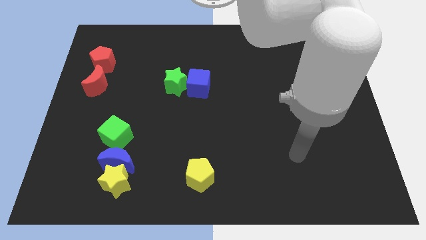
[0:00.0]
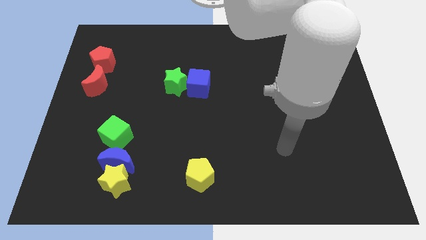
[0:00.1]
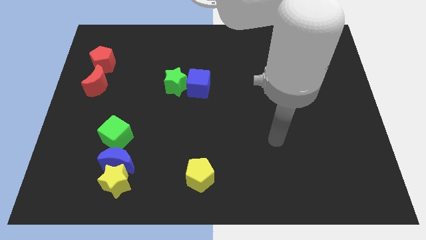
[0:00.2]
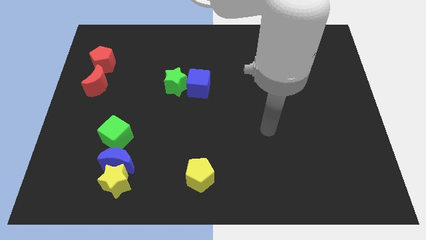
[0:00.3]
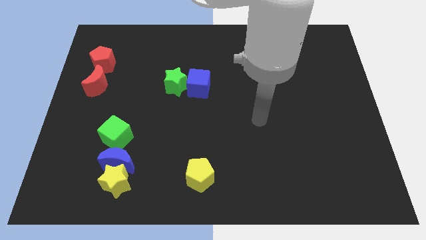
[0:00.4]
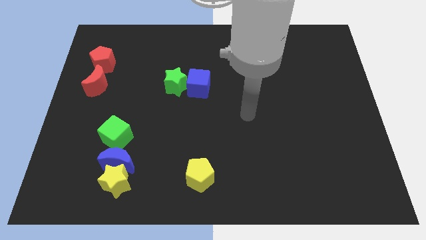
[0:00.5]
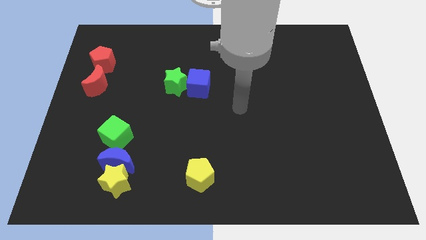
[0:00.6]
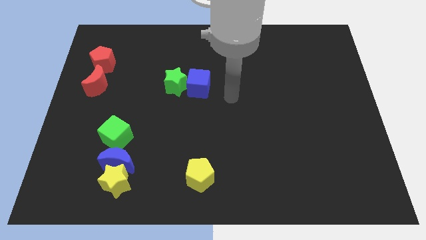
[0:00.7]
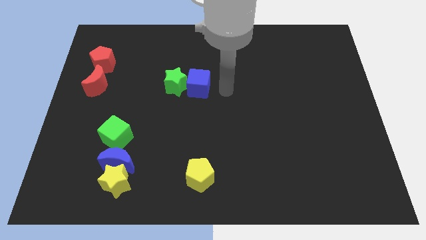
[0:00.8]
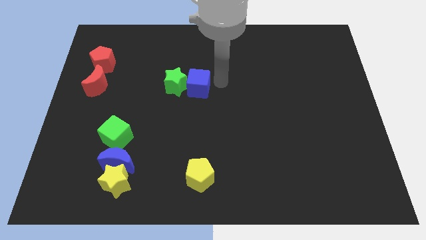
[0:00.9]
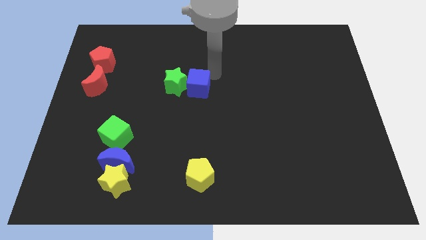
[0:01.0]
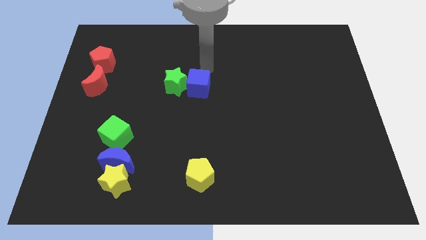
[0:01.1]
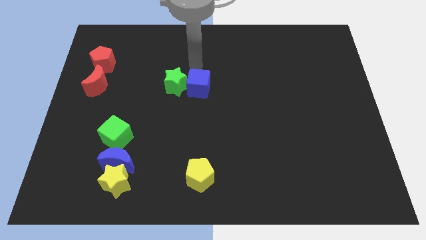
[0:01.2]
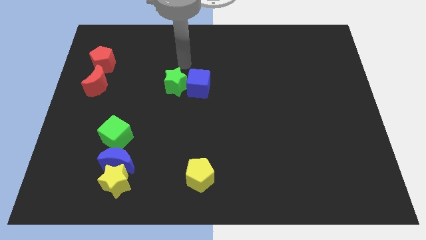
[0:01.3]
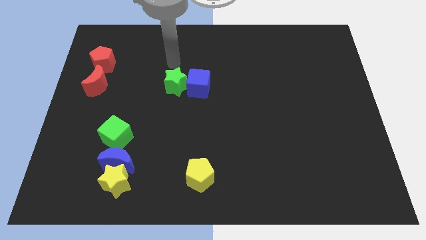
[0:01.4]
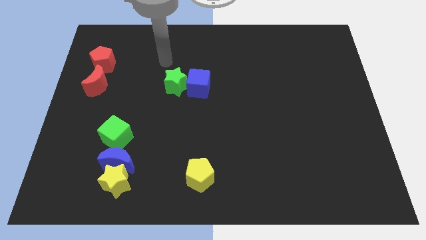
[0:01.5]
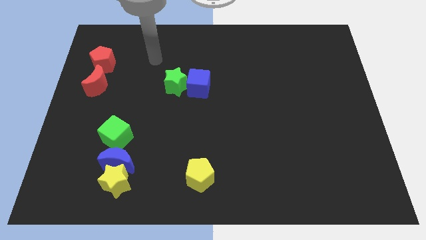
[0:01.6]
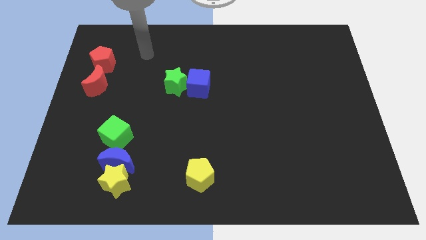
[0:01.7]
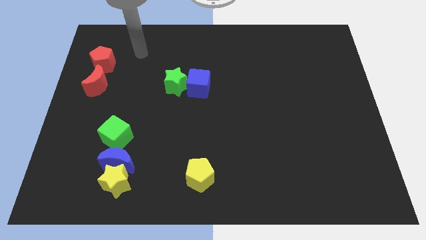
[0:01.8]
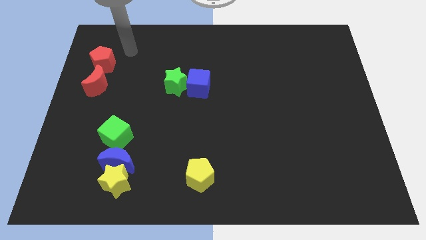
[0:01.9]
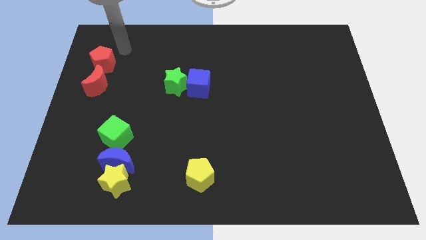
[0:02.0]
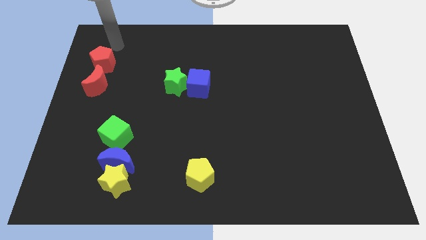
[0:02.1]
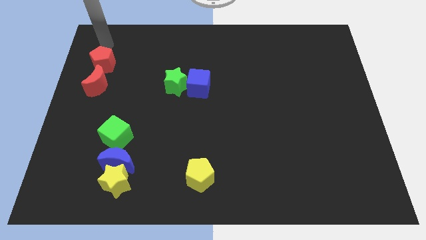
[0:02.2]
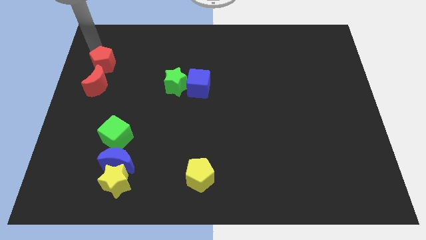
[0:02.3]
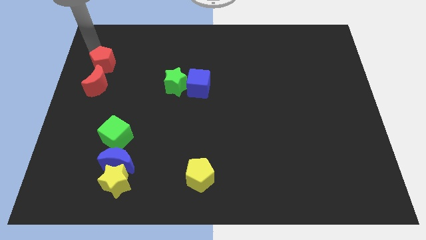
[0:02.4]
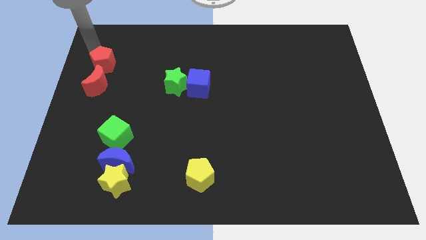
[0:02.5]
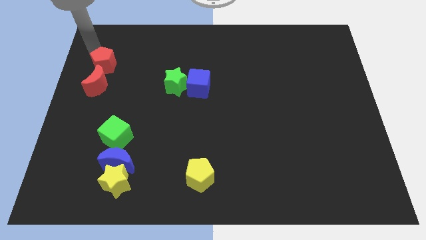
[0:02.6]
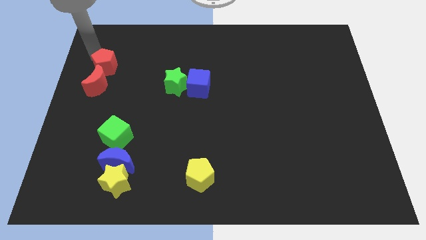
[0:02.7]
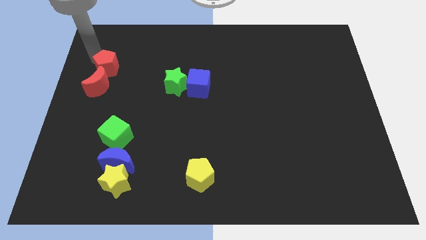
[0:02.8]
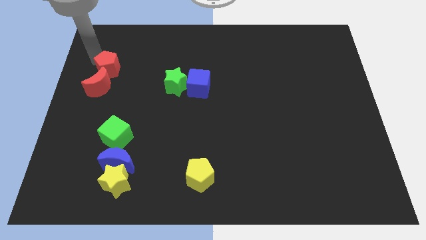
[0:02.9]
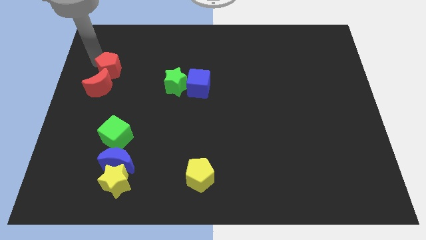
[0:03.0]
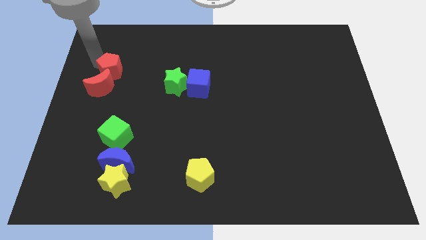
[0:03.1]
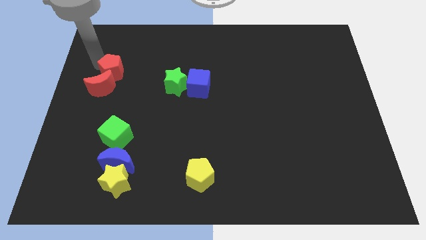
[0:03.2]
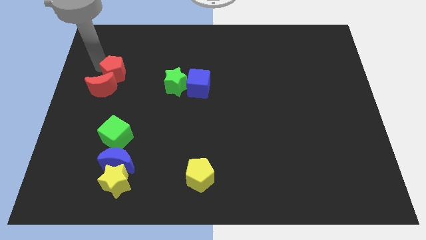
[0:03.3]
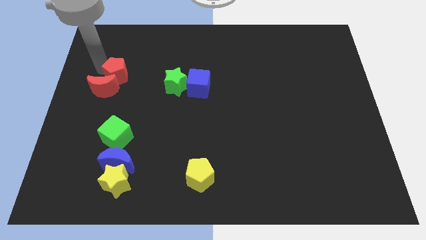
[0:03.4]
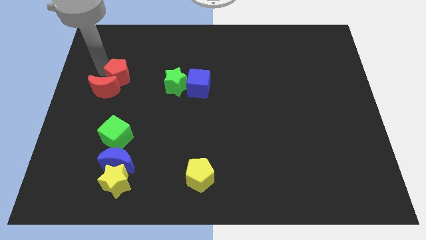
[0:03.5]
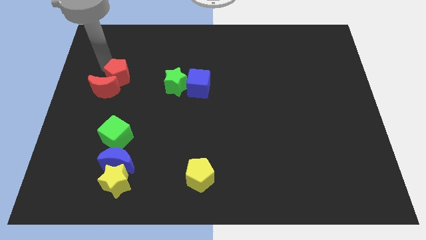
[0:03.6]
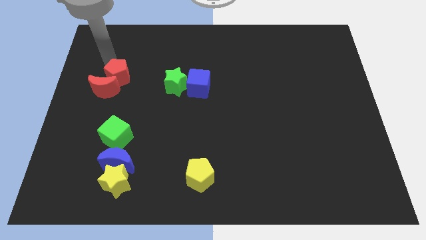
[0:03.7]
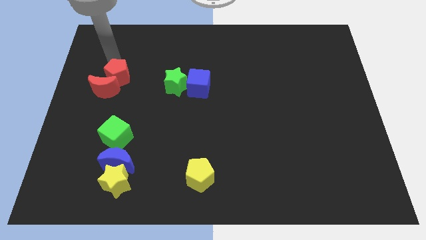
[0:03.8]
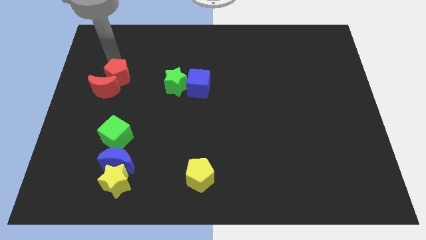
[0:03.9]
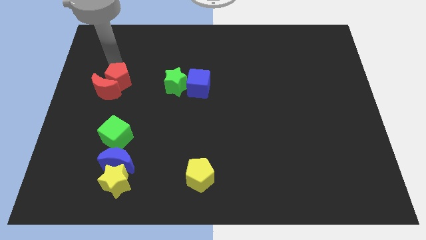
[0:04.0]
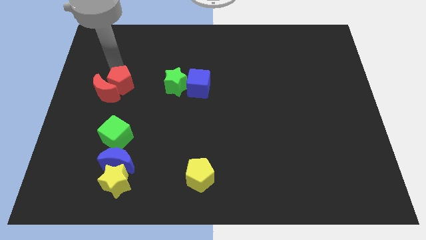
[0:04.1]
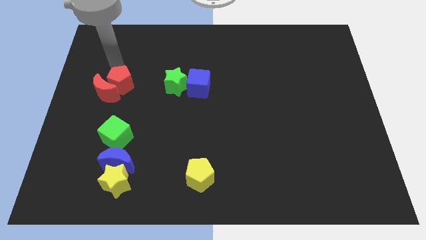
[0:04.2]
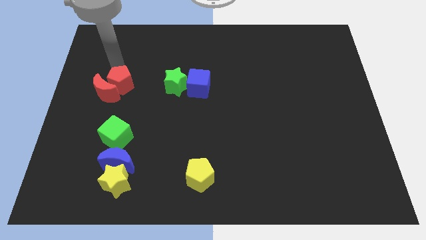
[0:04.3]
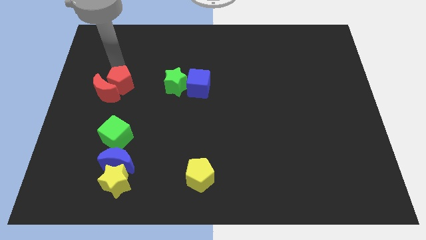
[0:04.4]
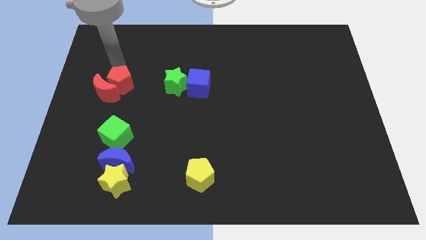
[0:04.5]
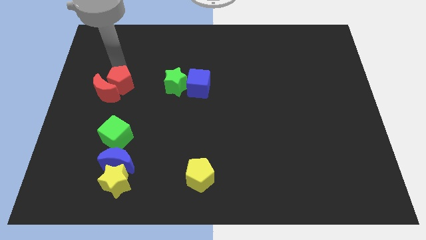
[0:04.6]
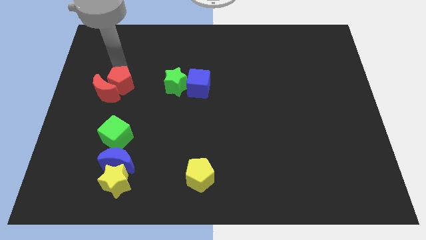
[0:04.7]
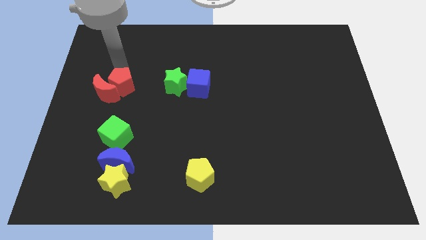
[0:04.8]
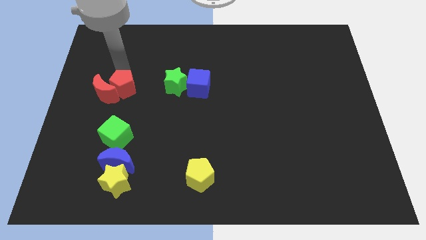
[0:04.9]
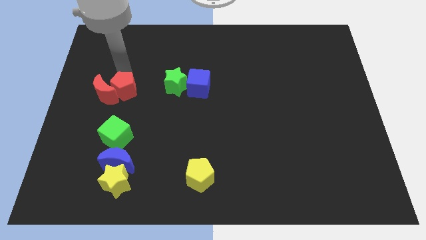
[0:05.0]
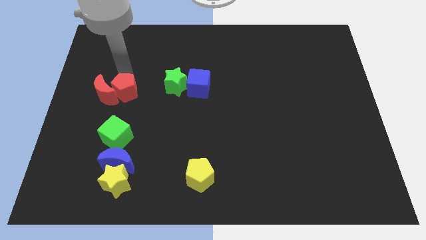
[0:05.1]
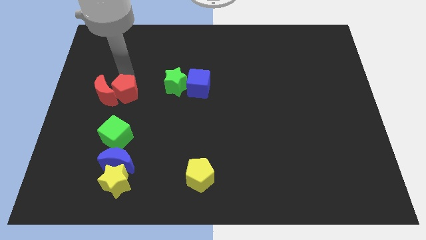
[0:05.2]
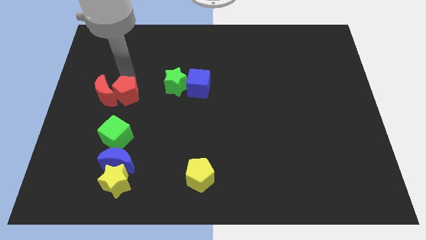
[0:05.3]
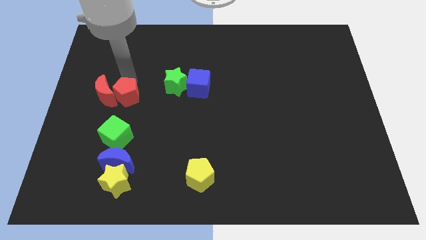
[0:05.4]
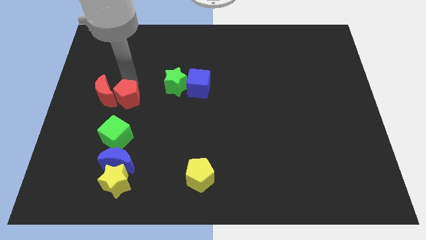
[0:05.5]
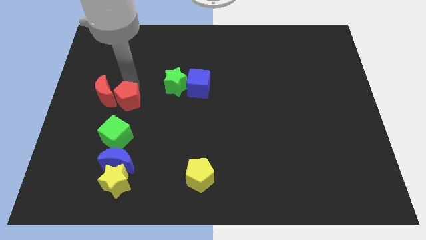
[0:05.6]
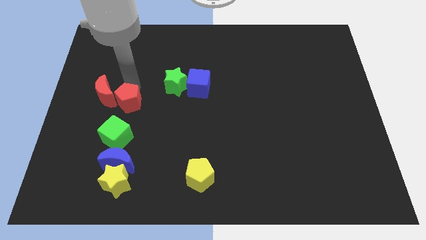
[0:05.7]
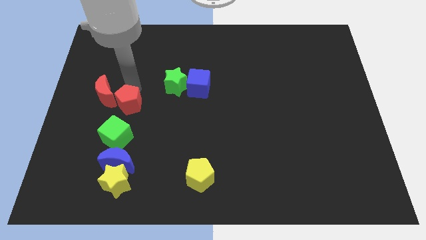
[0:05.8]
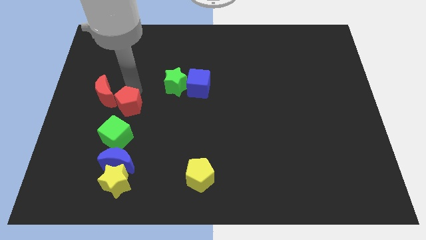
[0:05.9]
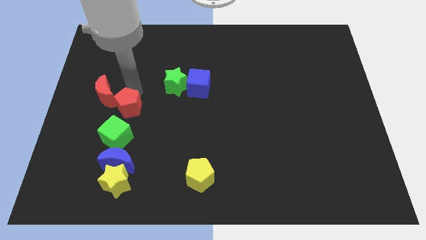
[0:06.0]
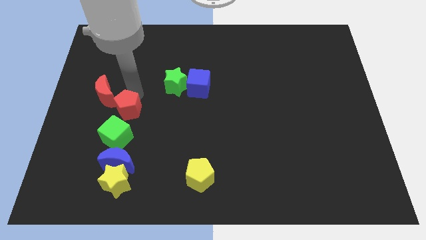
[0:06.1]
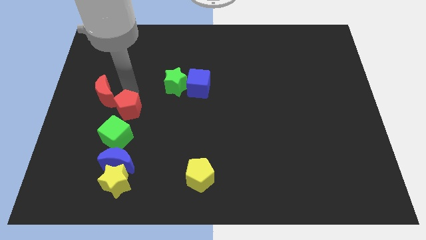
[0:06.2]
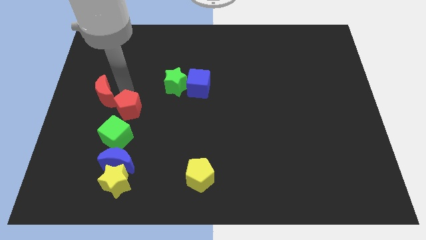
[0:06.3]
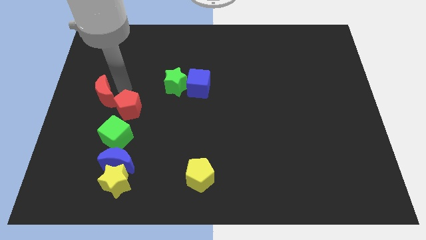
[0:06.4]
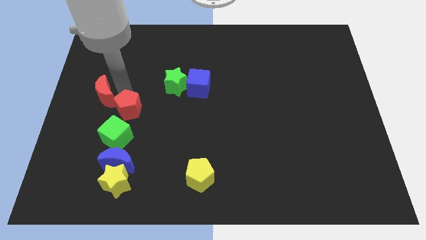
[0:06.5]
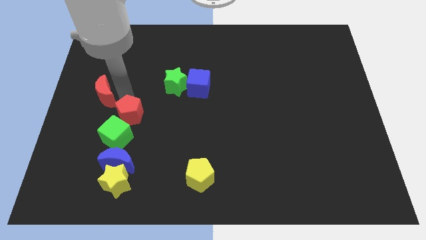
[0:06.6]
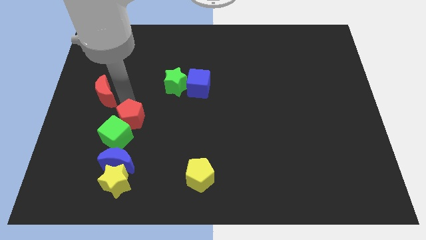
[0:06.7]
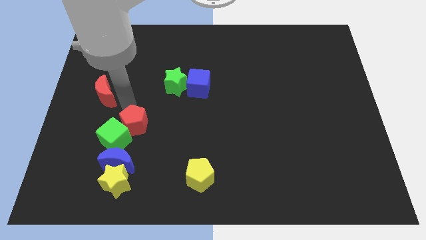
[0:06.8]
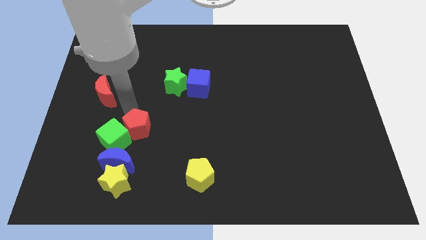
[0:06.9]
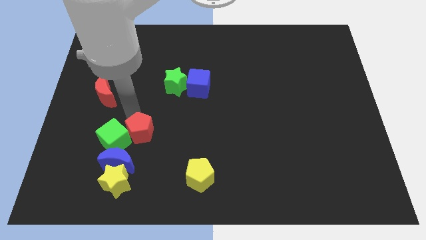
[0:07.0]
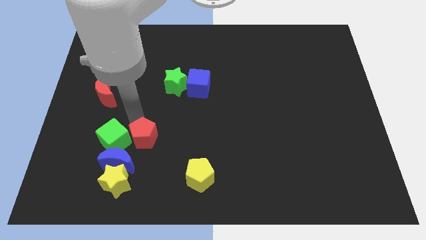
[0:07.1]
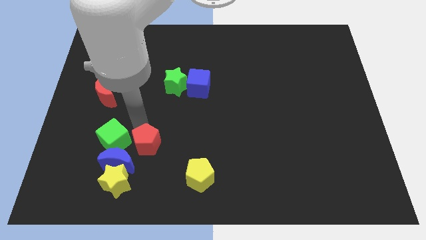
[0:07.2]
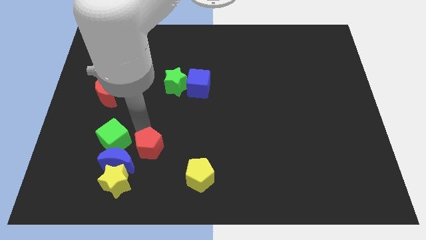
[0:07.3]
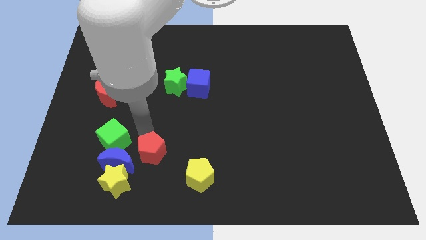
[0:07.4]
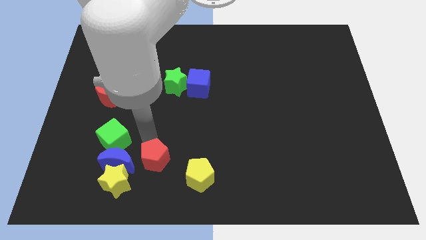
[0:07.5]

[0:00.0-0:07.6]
slide the red pentagon to the left of the yellow pentagon
